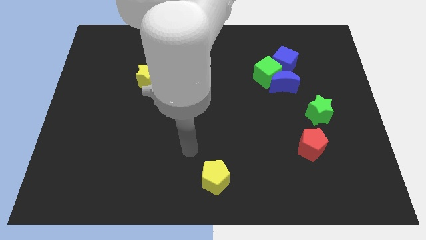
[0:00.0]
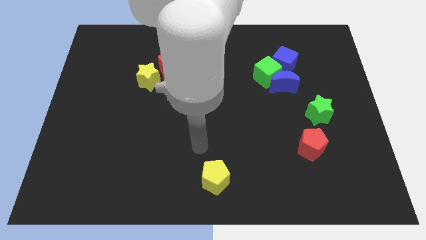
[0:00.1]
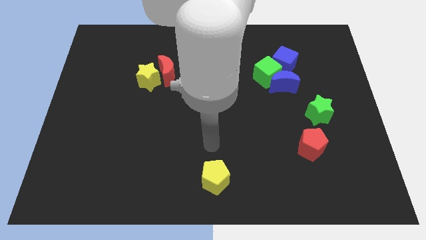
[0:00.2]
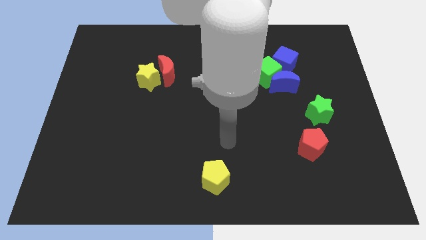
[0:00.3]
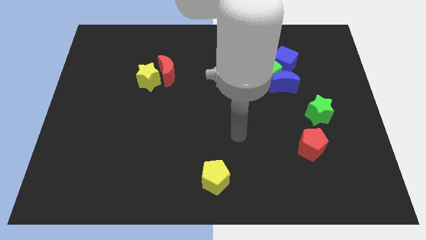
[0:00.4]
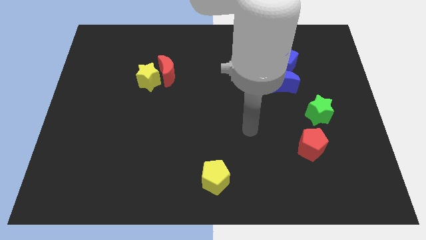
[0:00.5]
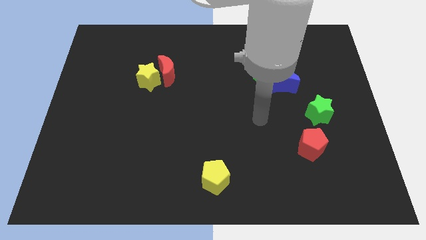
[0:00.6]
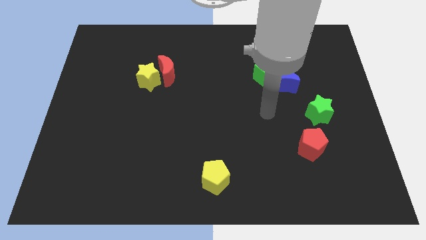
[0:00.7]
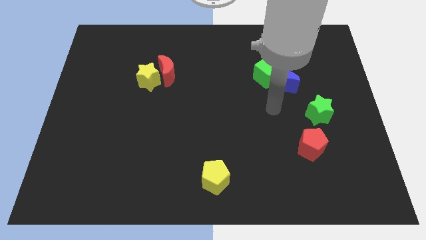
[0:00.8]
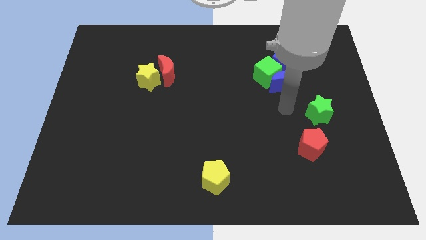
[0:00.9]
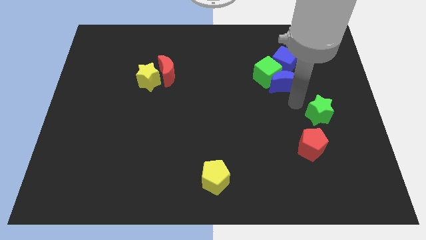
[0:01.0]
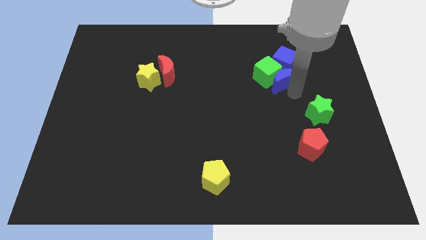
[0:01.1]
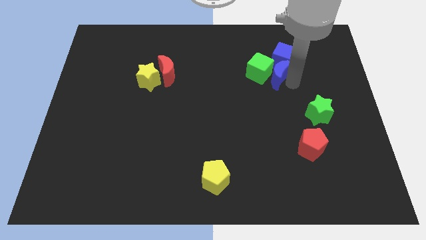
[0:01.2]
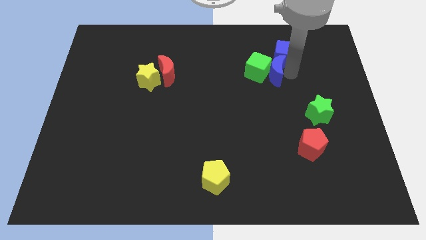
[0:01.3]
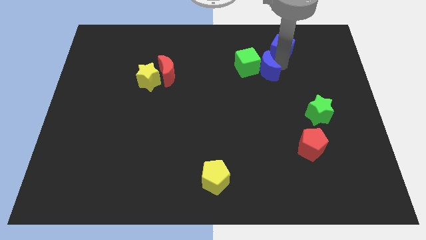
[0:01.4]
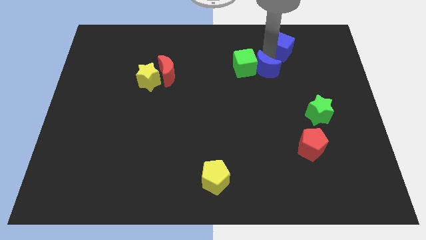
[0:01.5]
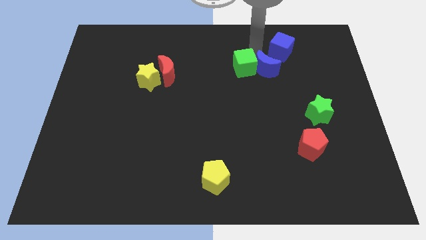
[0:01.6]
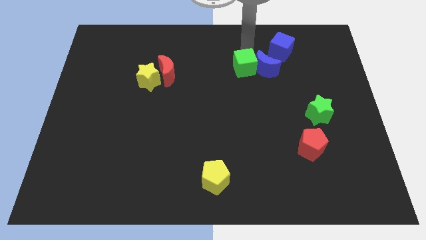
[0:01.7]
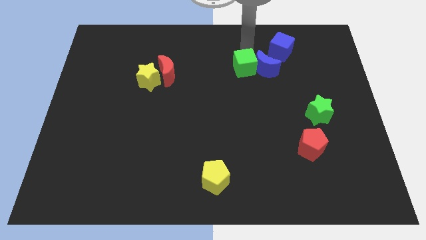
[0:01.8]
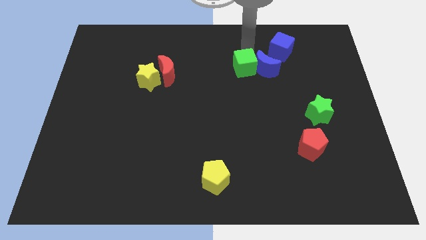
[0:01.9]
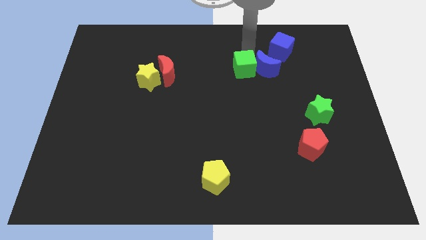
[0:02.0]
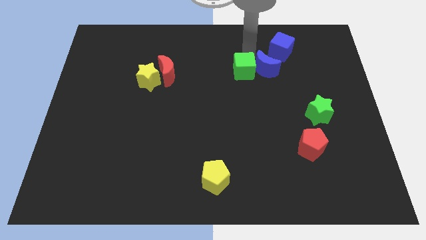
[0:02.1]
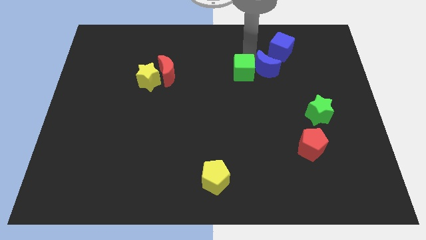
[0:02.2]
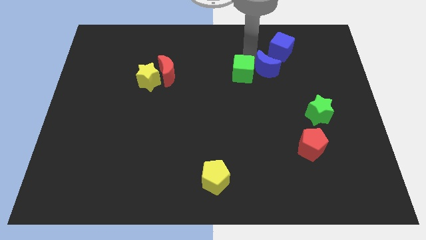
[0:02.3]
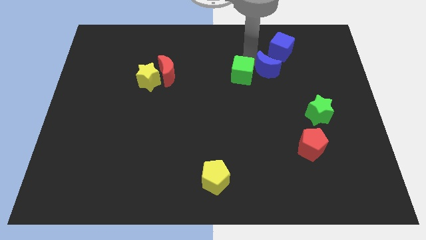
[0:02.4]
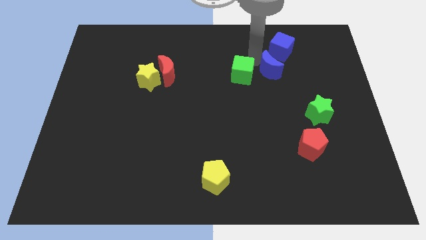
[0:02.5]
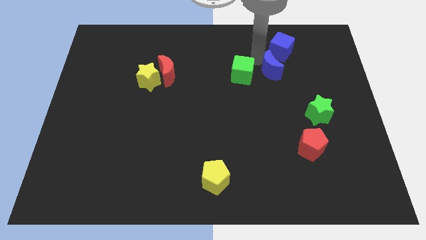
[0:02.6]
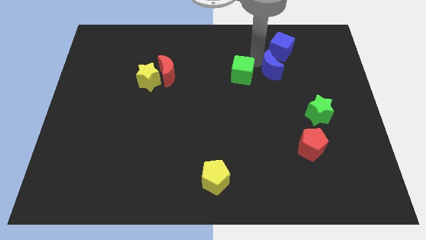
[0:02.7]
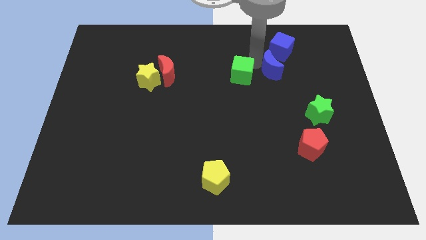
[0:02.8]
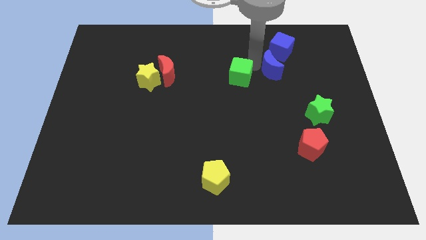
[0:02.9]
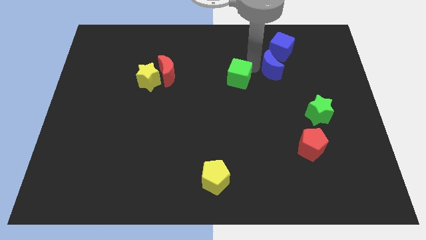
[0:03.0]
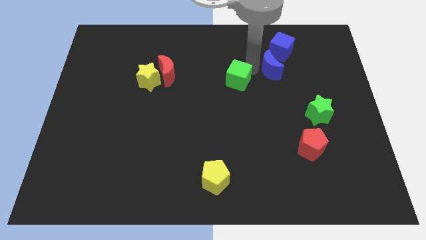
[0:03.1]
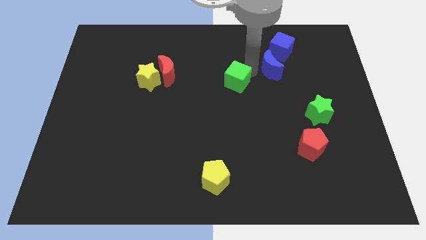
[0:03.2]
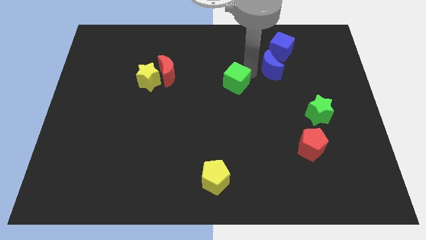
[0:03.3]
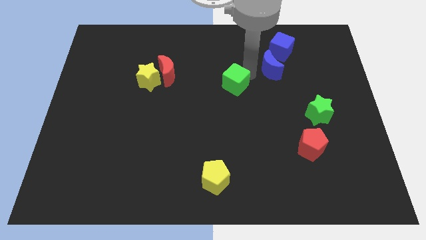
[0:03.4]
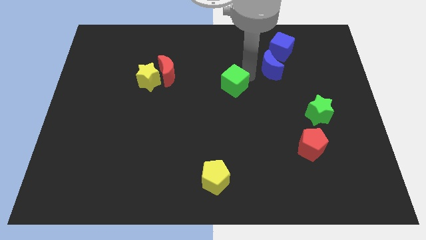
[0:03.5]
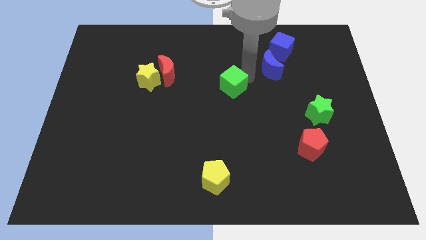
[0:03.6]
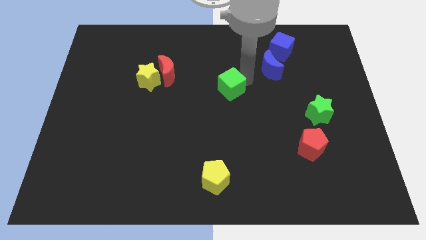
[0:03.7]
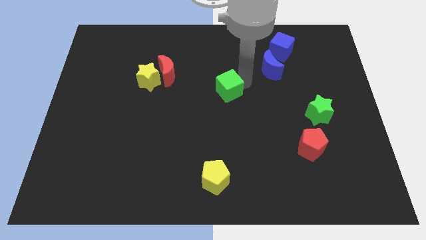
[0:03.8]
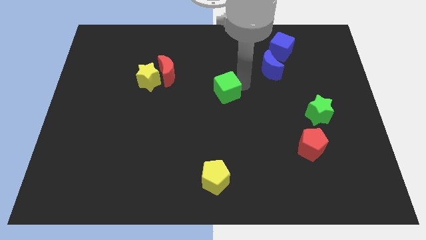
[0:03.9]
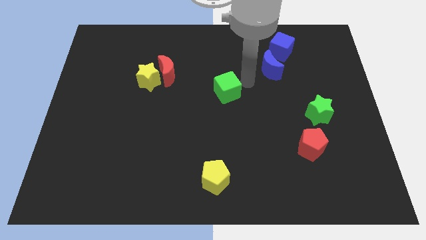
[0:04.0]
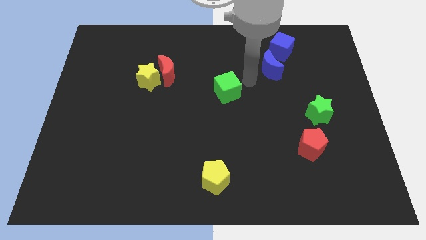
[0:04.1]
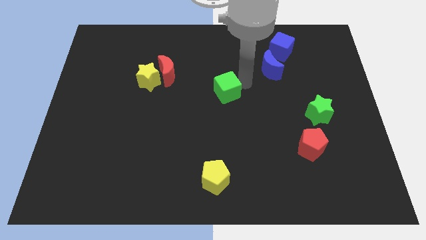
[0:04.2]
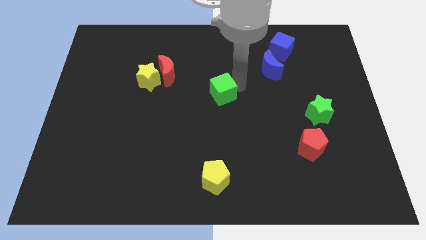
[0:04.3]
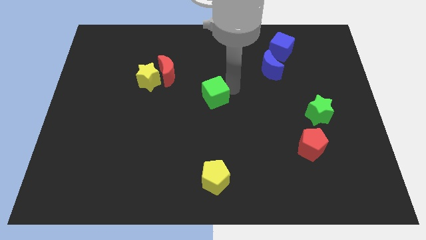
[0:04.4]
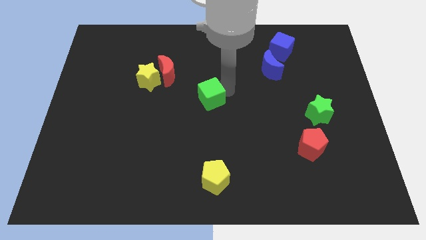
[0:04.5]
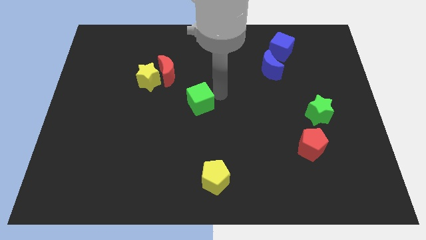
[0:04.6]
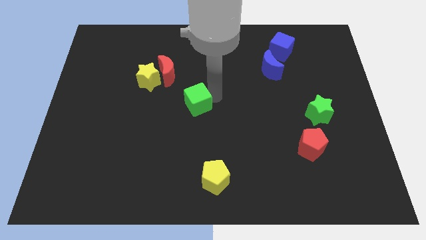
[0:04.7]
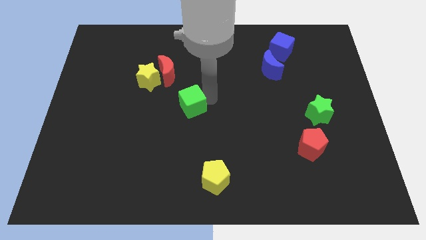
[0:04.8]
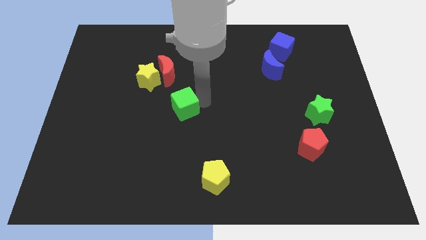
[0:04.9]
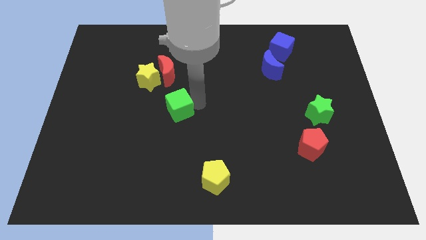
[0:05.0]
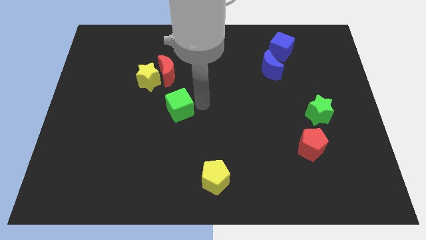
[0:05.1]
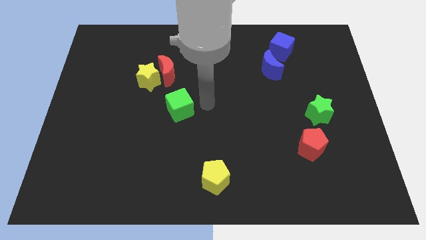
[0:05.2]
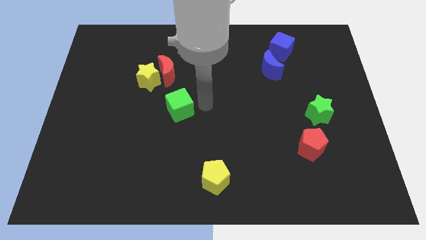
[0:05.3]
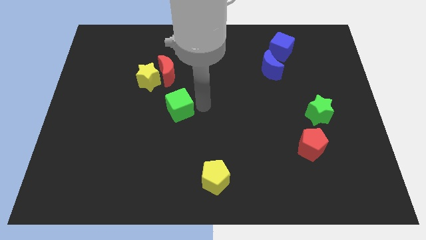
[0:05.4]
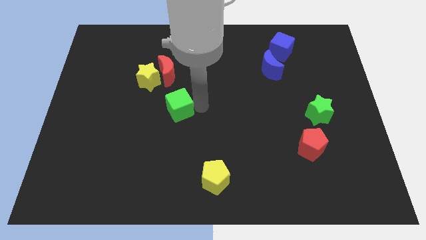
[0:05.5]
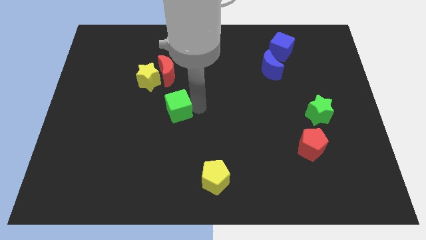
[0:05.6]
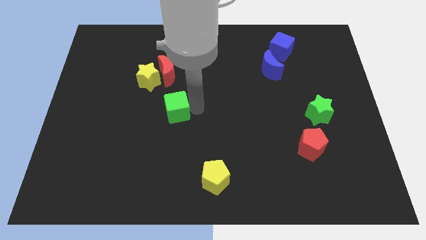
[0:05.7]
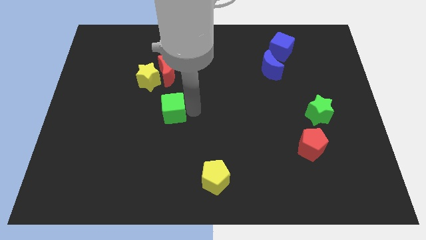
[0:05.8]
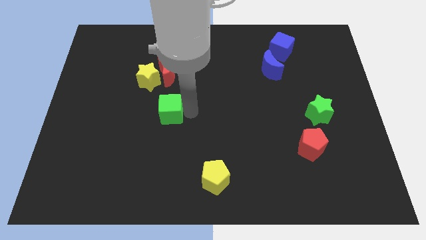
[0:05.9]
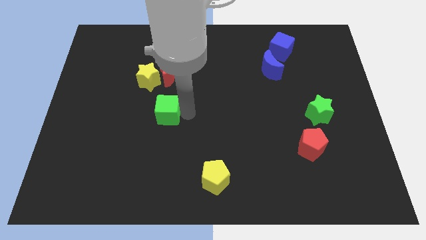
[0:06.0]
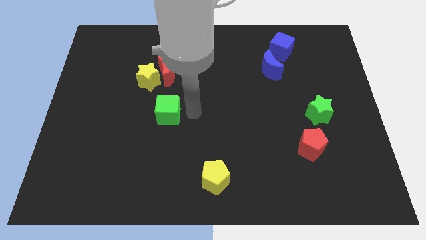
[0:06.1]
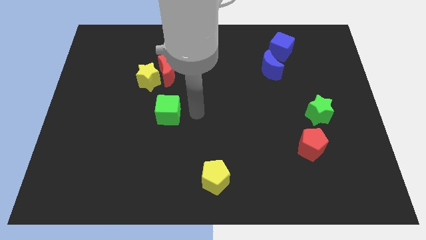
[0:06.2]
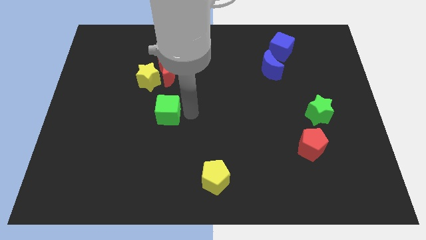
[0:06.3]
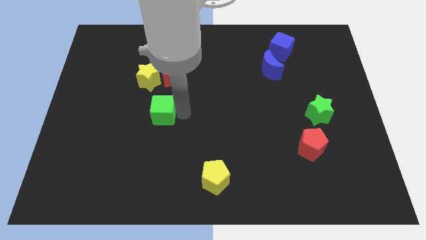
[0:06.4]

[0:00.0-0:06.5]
put the green cube below the yellow star

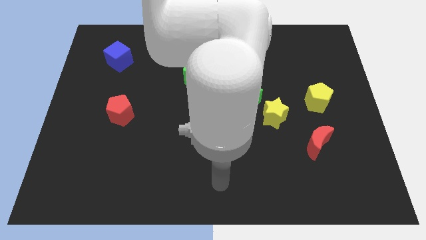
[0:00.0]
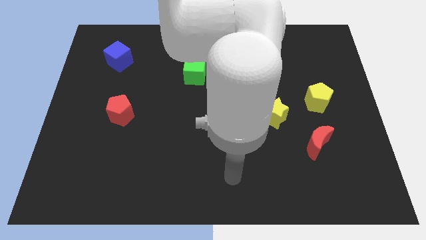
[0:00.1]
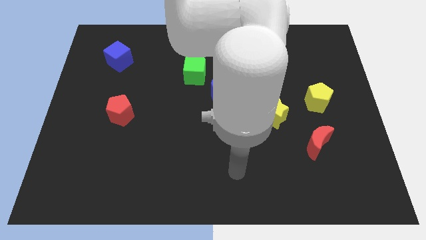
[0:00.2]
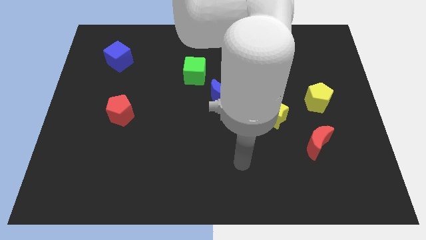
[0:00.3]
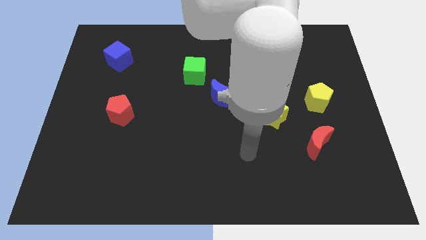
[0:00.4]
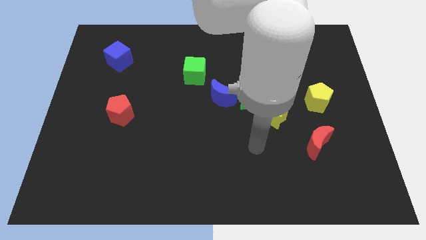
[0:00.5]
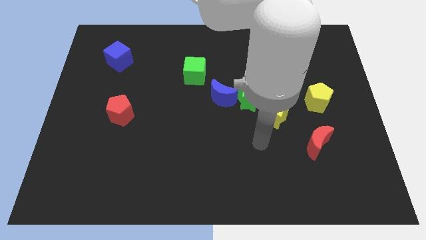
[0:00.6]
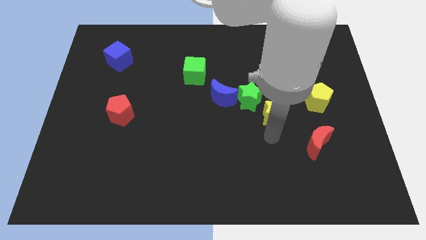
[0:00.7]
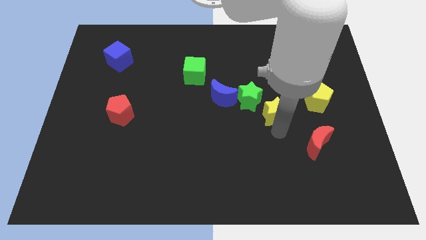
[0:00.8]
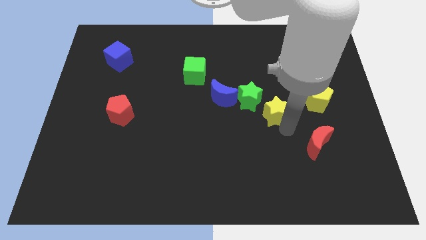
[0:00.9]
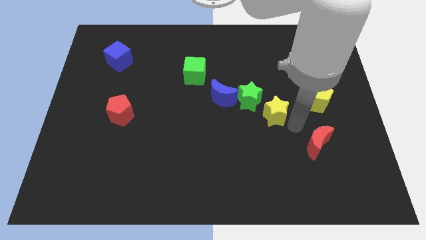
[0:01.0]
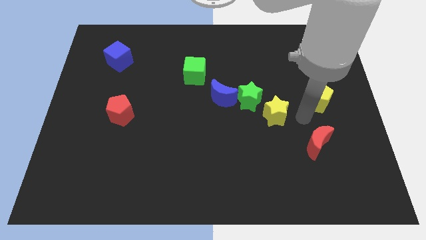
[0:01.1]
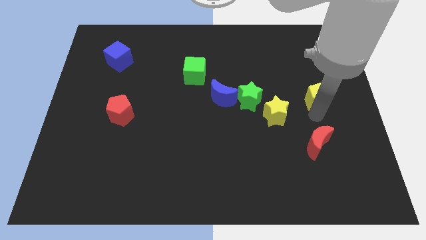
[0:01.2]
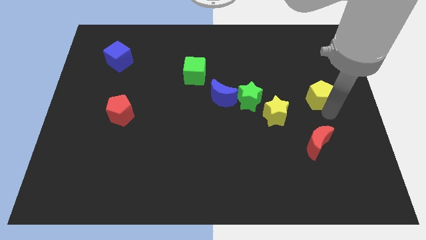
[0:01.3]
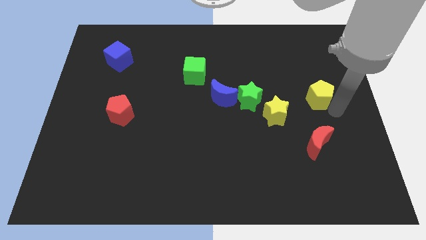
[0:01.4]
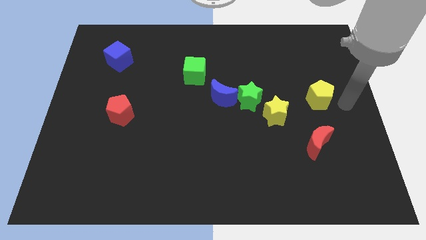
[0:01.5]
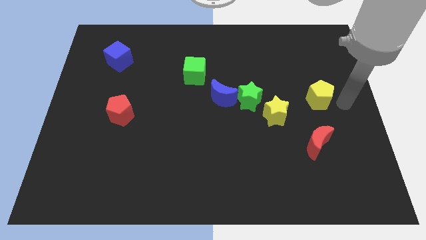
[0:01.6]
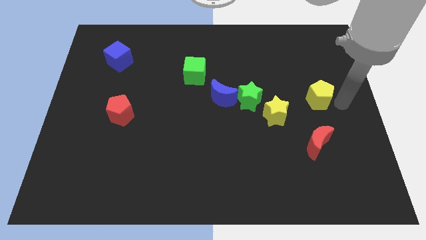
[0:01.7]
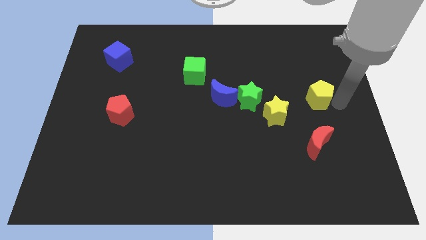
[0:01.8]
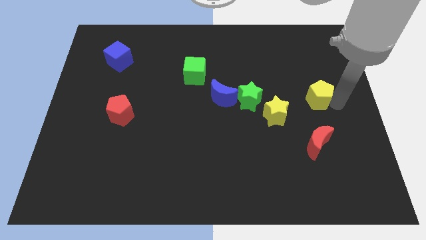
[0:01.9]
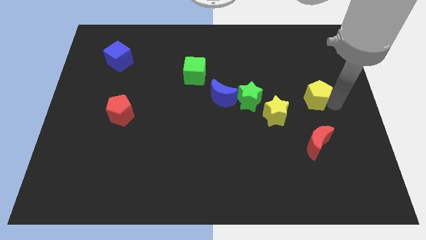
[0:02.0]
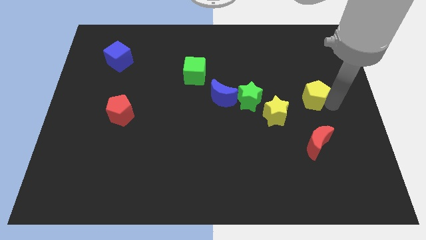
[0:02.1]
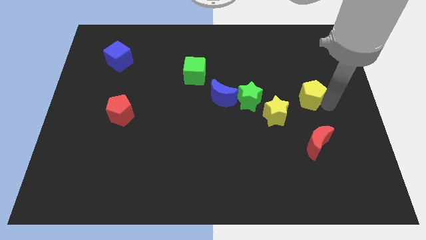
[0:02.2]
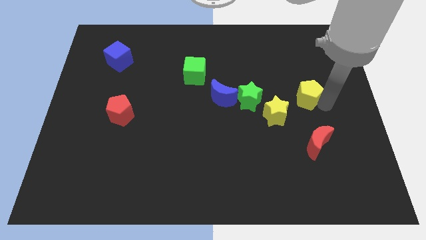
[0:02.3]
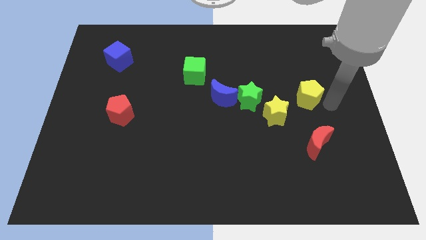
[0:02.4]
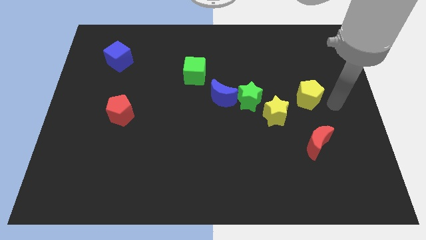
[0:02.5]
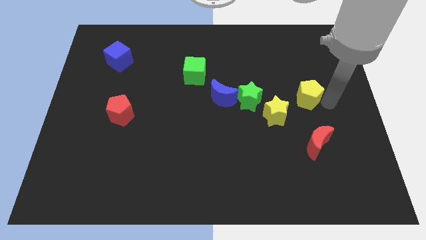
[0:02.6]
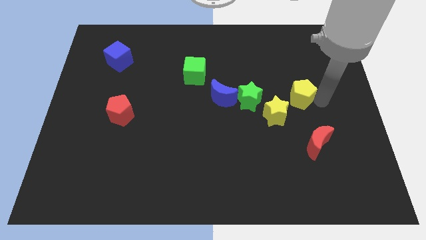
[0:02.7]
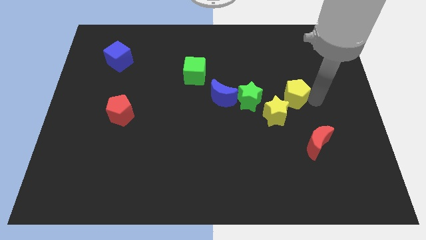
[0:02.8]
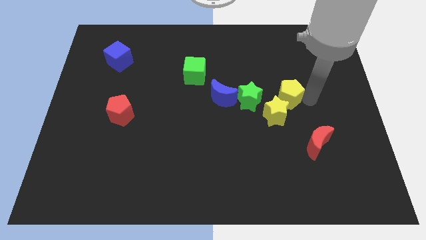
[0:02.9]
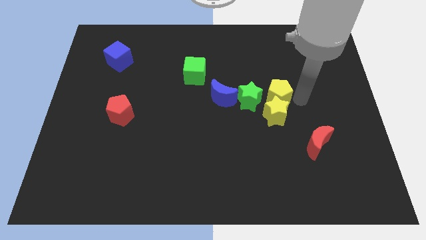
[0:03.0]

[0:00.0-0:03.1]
push the yellow pentagon diagonally up and to the left of the yellow star
